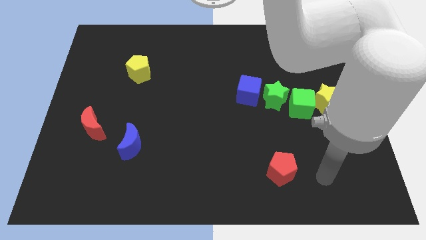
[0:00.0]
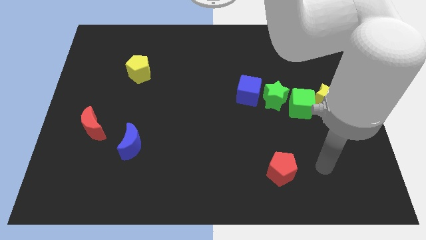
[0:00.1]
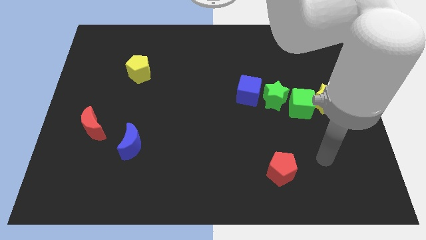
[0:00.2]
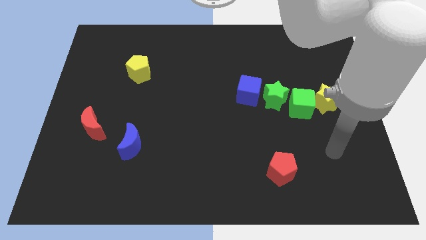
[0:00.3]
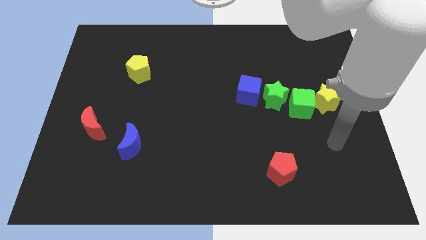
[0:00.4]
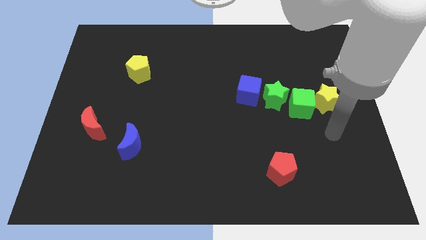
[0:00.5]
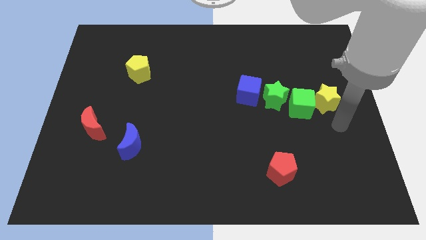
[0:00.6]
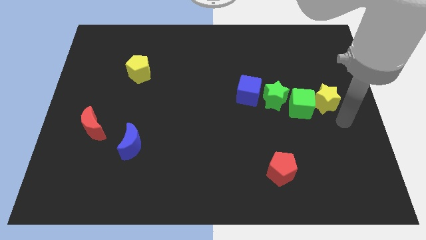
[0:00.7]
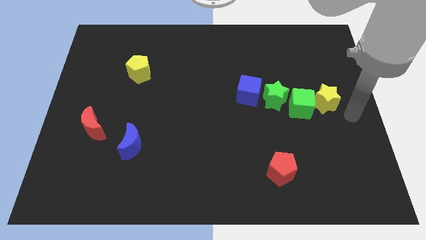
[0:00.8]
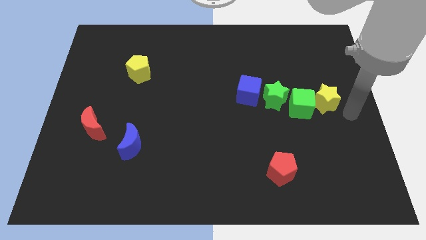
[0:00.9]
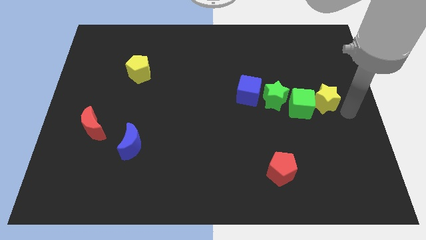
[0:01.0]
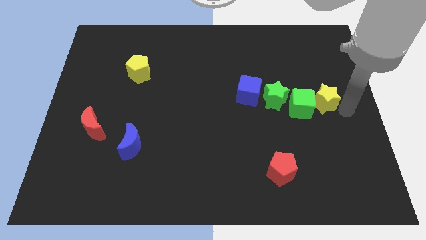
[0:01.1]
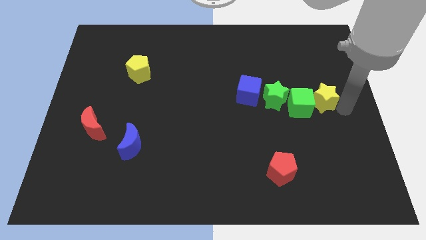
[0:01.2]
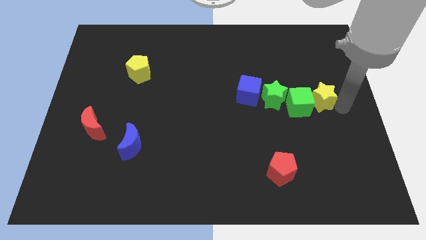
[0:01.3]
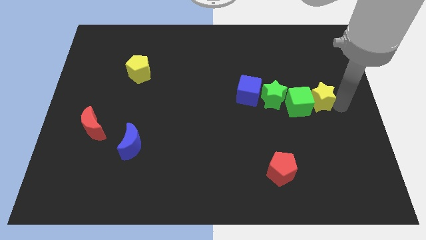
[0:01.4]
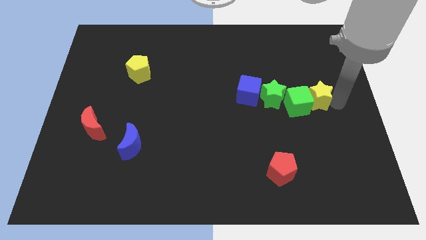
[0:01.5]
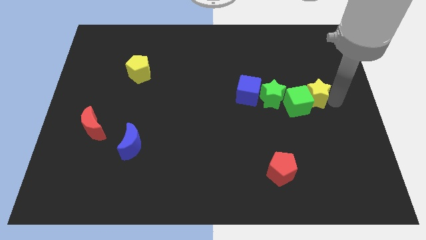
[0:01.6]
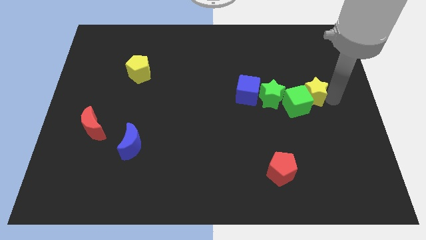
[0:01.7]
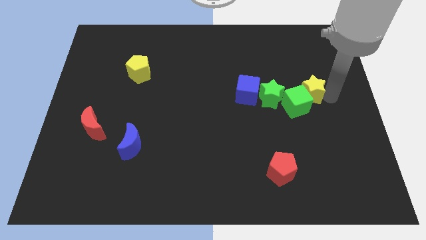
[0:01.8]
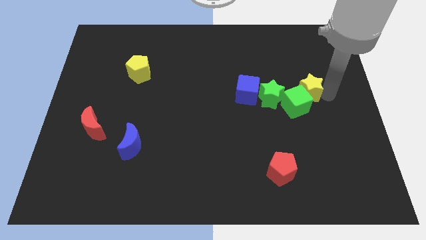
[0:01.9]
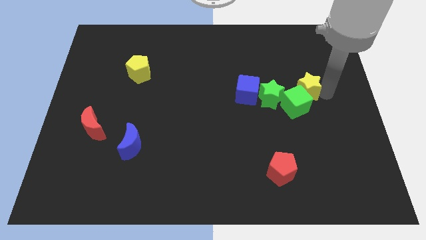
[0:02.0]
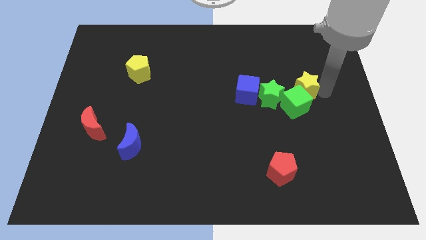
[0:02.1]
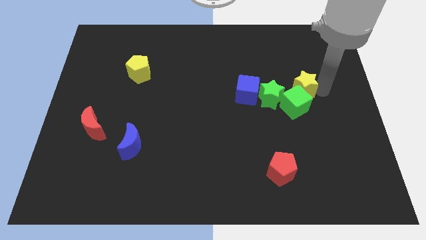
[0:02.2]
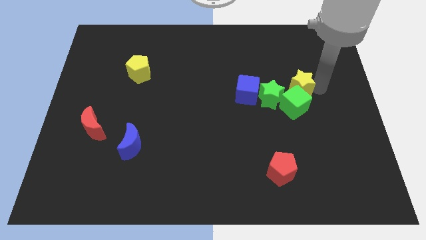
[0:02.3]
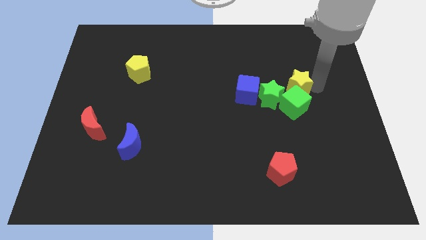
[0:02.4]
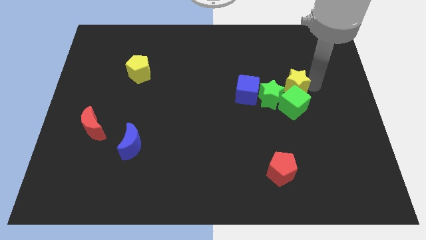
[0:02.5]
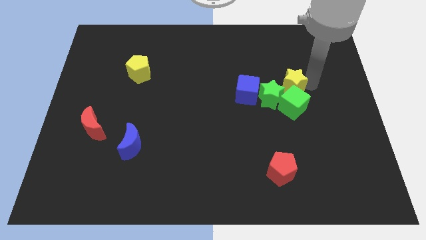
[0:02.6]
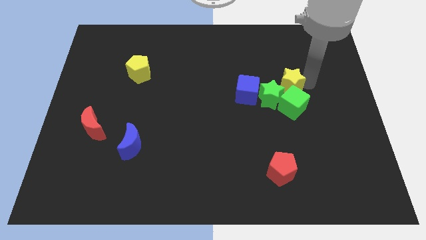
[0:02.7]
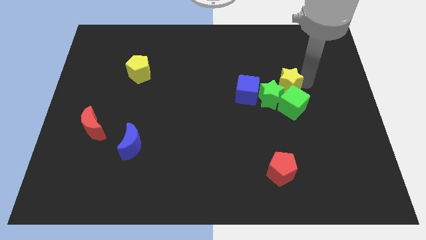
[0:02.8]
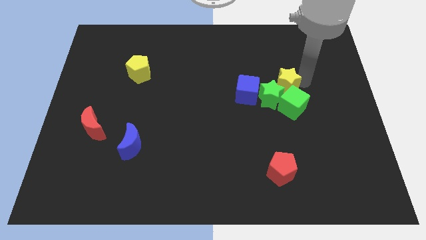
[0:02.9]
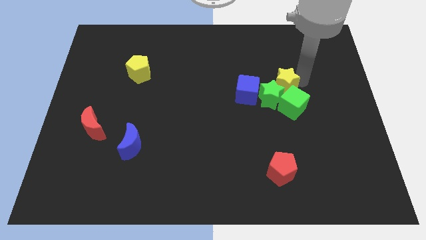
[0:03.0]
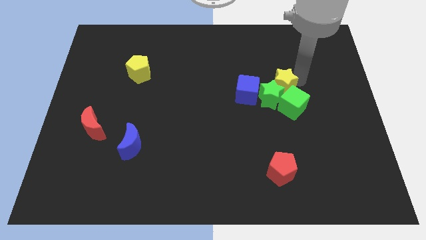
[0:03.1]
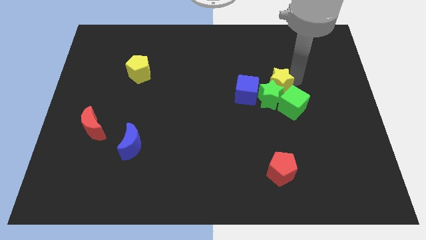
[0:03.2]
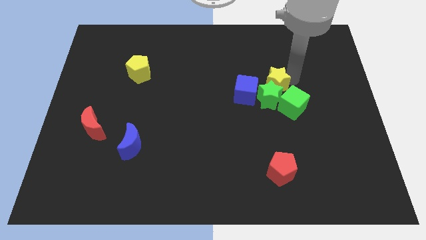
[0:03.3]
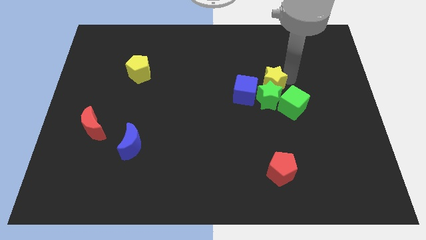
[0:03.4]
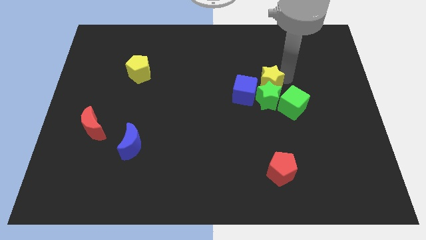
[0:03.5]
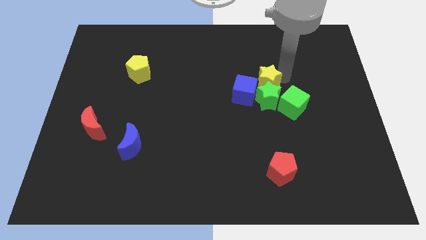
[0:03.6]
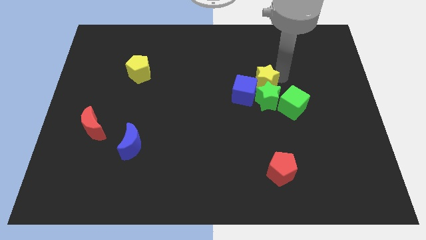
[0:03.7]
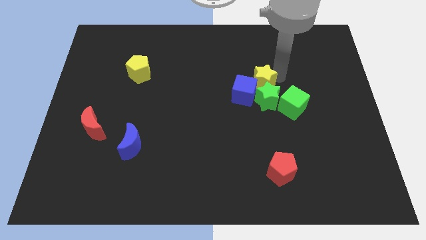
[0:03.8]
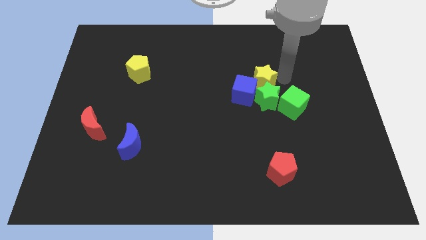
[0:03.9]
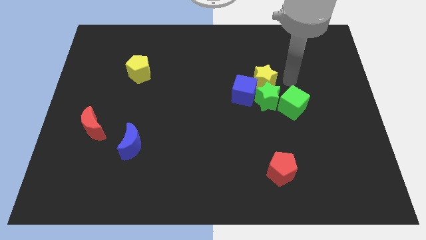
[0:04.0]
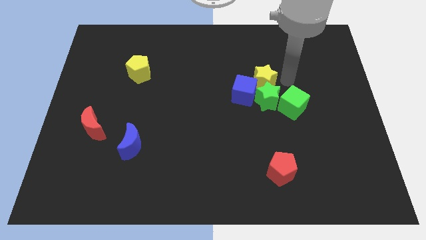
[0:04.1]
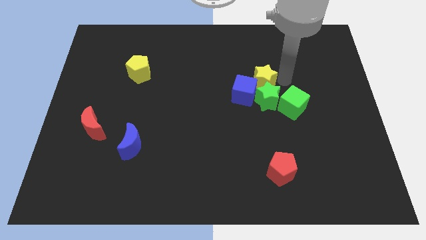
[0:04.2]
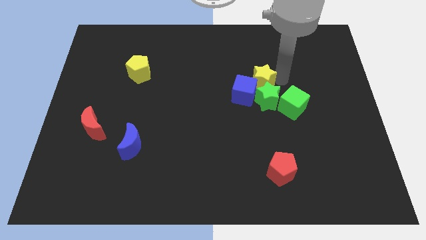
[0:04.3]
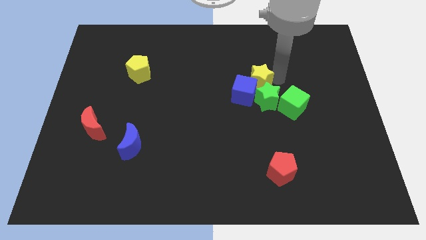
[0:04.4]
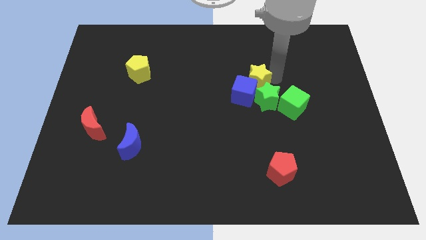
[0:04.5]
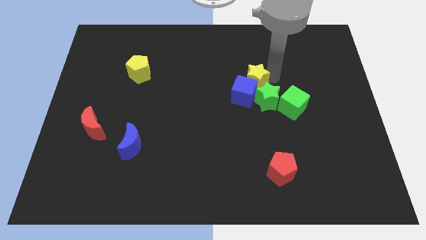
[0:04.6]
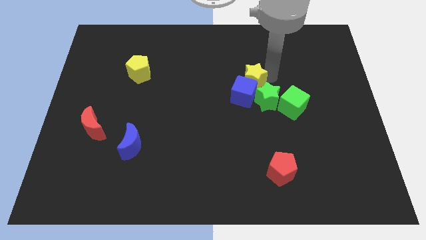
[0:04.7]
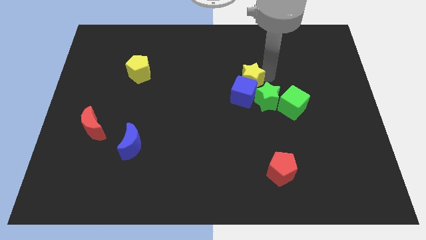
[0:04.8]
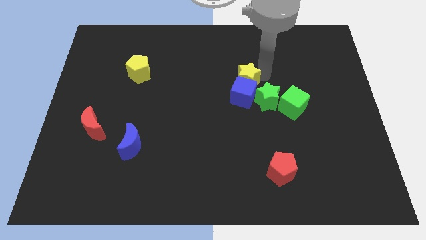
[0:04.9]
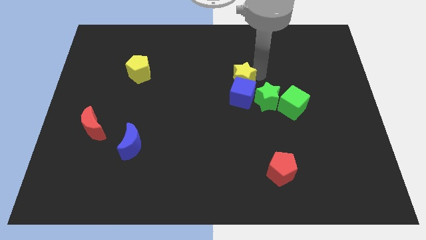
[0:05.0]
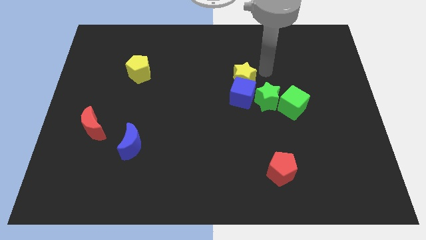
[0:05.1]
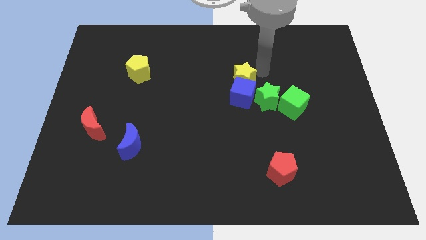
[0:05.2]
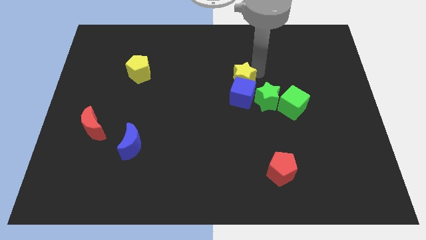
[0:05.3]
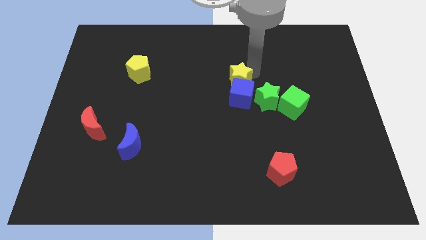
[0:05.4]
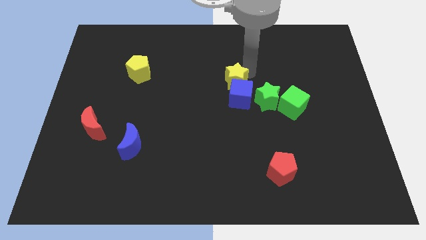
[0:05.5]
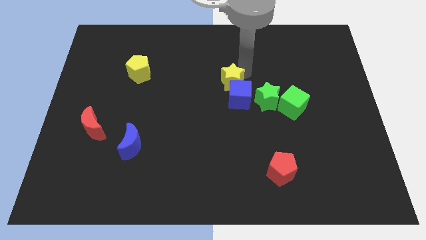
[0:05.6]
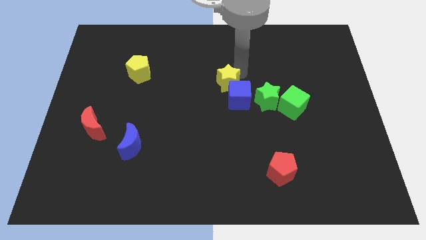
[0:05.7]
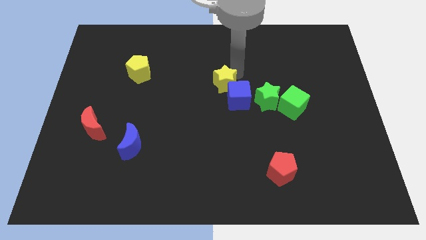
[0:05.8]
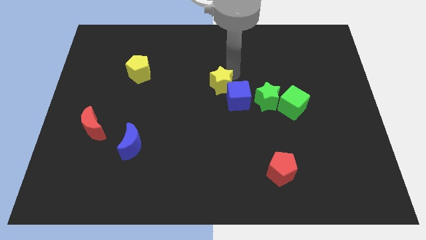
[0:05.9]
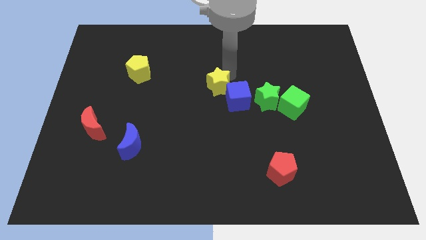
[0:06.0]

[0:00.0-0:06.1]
push the yellow star to the left side of the blue cube
